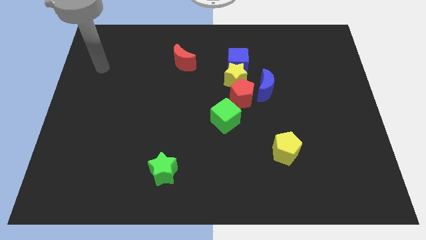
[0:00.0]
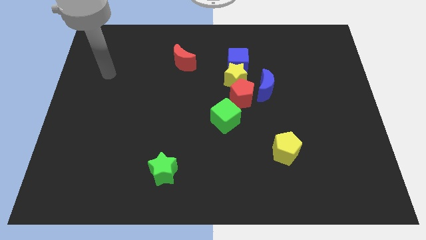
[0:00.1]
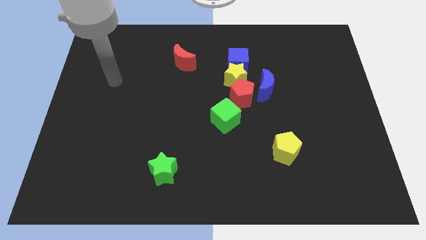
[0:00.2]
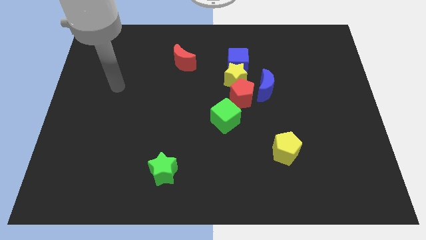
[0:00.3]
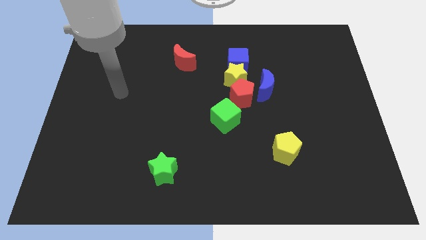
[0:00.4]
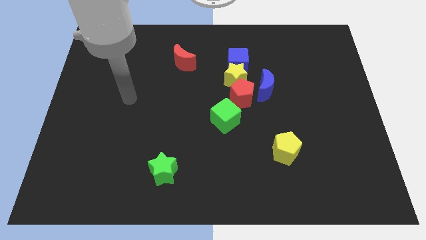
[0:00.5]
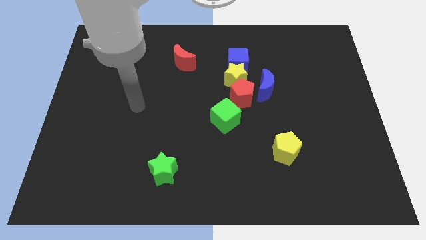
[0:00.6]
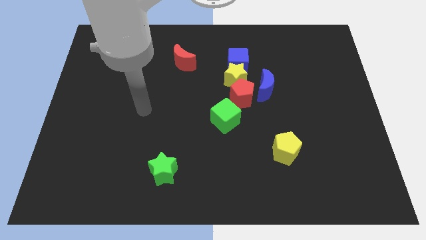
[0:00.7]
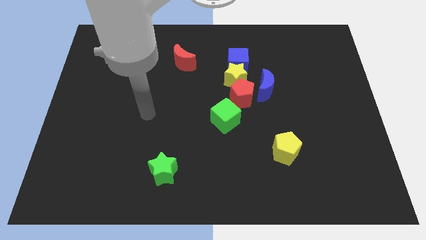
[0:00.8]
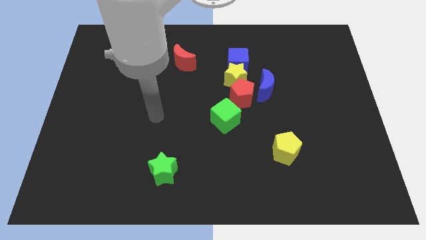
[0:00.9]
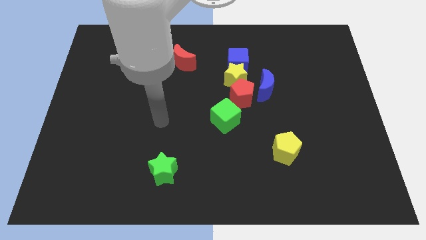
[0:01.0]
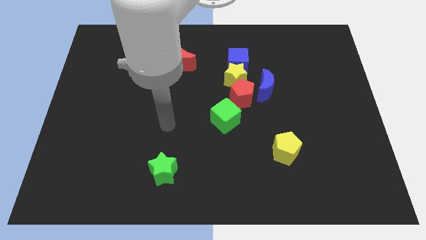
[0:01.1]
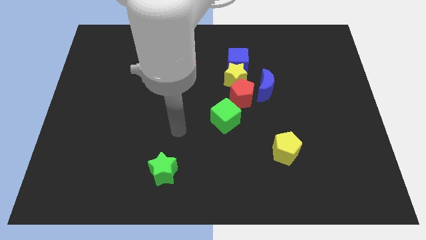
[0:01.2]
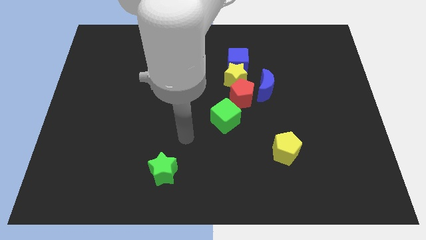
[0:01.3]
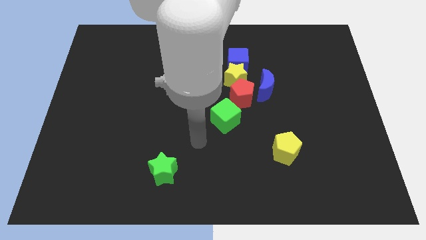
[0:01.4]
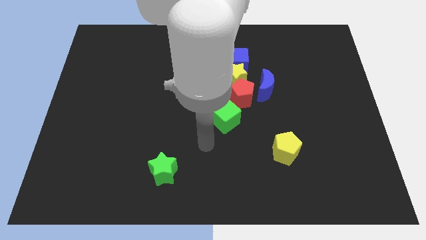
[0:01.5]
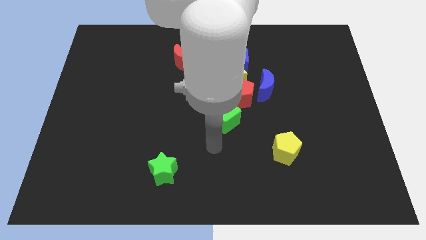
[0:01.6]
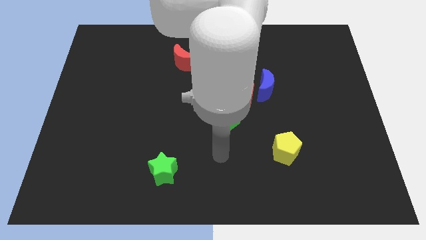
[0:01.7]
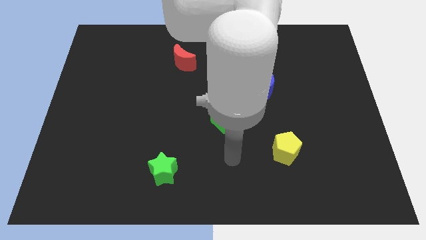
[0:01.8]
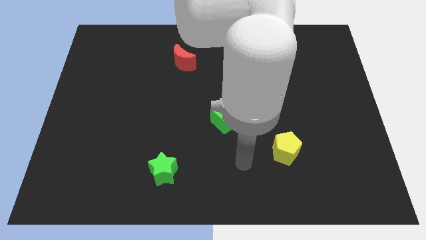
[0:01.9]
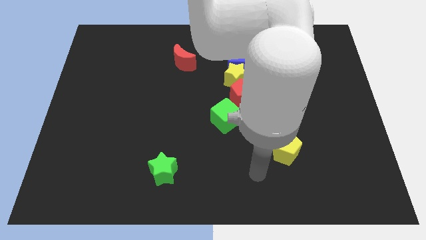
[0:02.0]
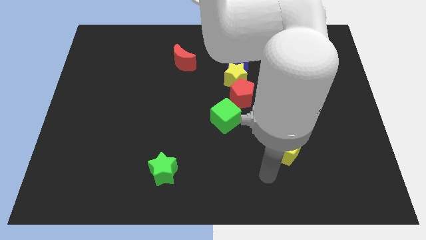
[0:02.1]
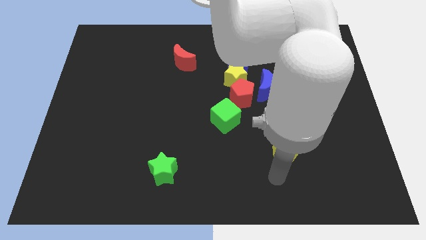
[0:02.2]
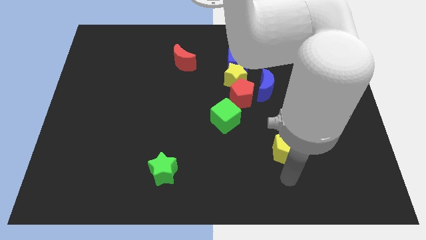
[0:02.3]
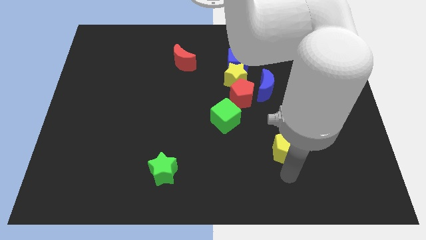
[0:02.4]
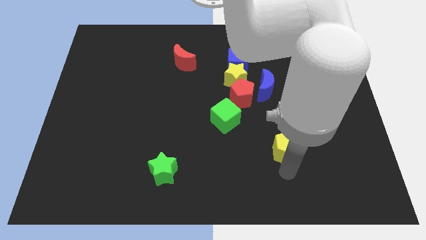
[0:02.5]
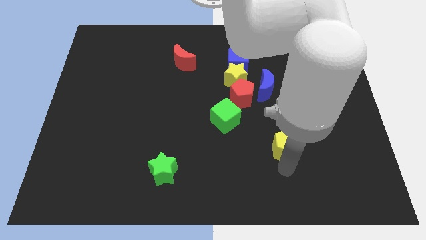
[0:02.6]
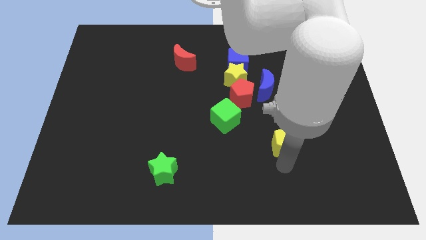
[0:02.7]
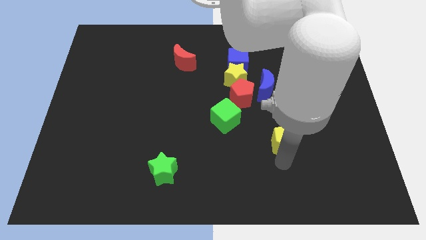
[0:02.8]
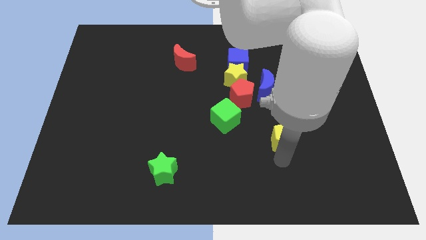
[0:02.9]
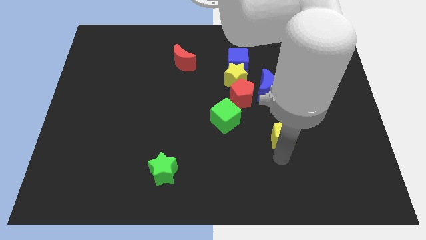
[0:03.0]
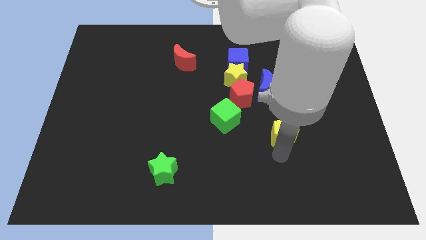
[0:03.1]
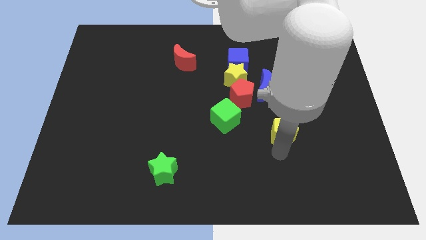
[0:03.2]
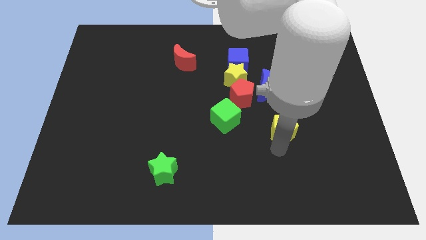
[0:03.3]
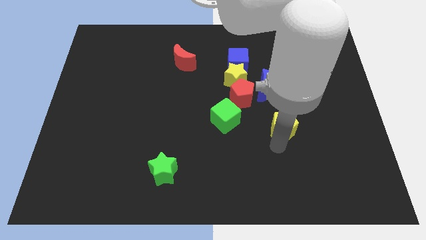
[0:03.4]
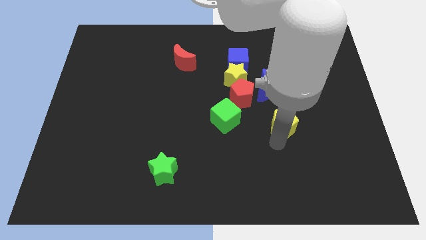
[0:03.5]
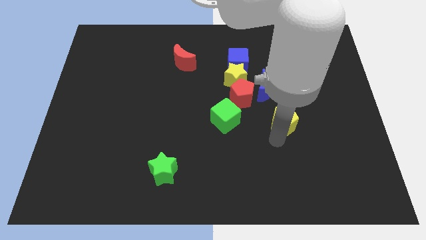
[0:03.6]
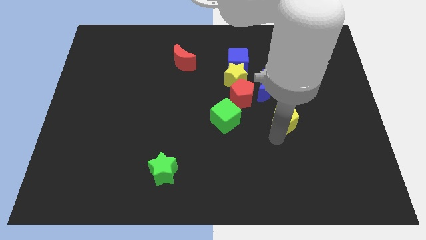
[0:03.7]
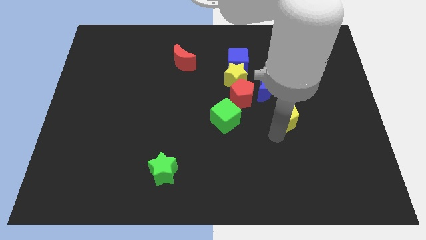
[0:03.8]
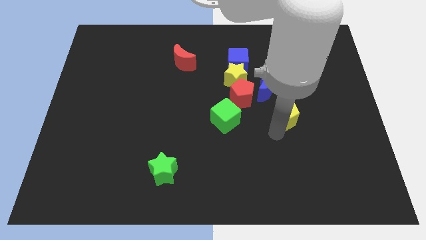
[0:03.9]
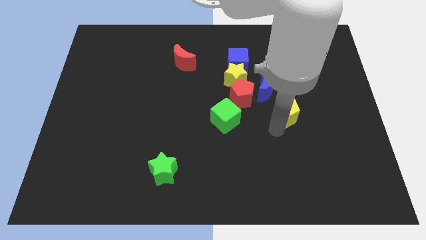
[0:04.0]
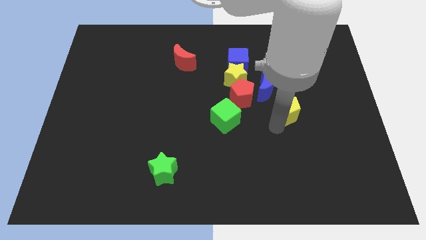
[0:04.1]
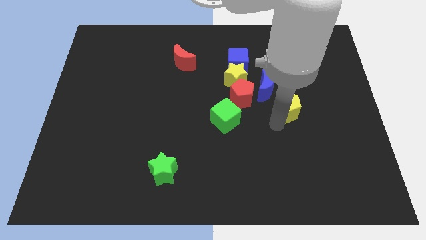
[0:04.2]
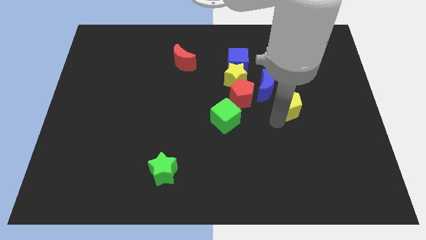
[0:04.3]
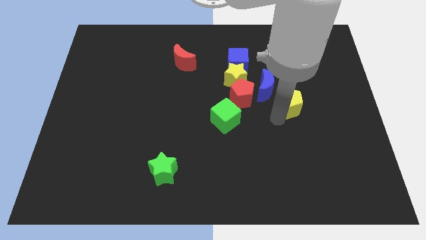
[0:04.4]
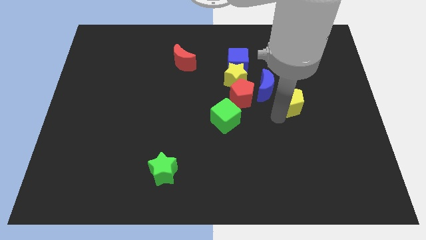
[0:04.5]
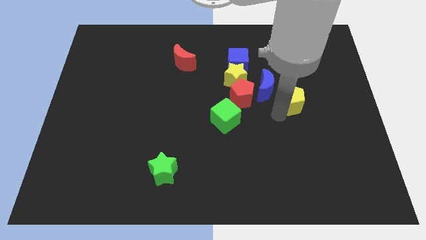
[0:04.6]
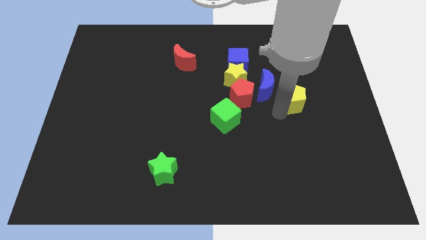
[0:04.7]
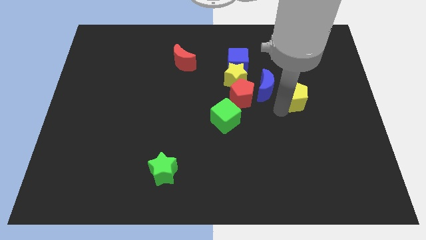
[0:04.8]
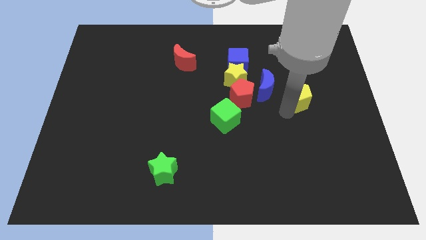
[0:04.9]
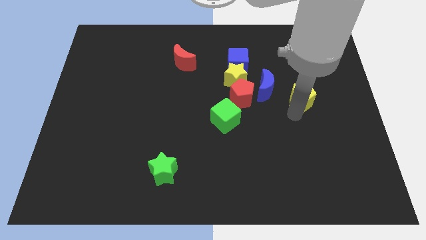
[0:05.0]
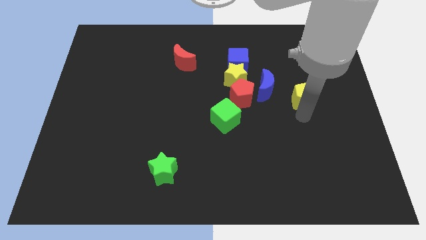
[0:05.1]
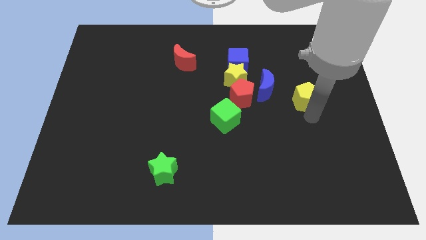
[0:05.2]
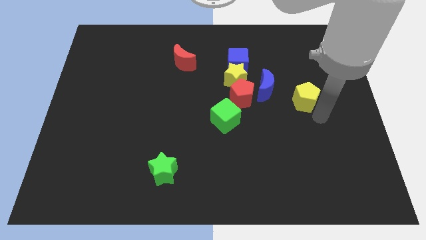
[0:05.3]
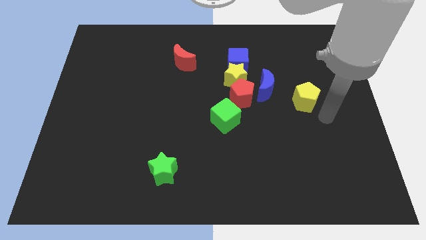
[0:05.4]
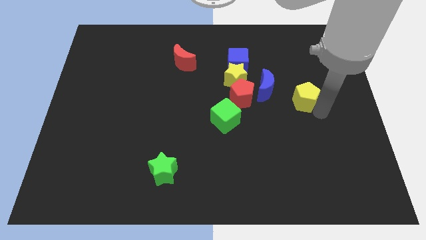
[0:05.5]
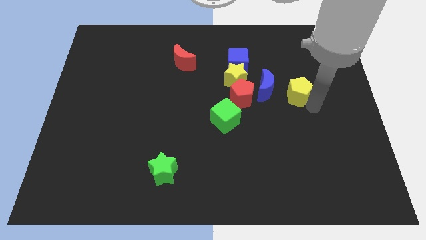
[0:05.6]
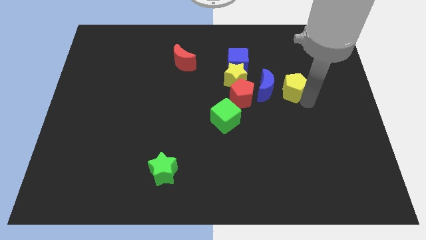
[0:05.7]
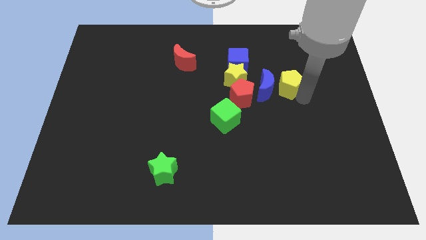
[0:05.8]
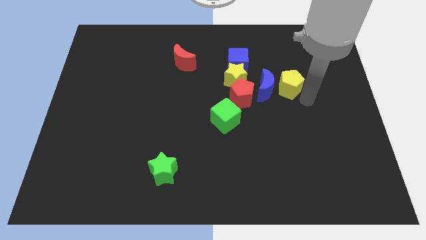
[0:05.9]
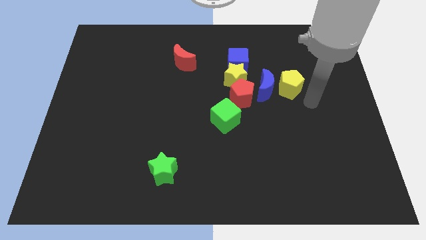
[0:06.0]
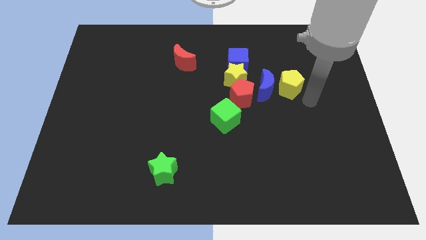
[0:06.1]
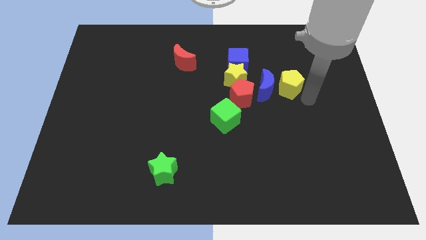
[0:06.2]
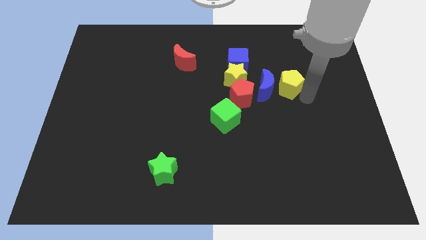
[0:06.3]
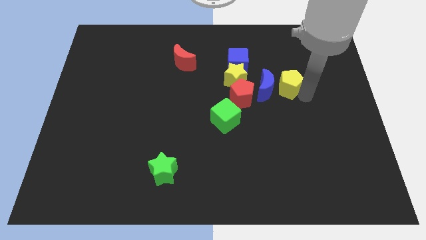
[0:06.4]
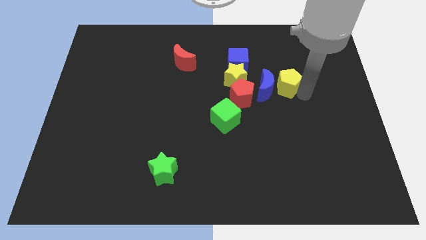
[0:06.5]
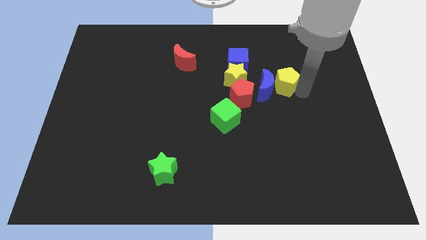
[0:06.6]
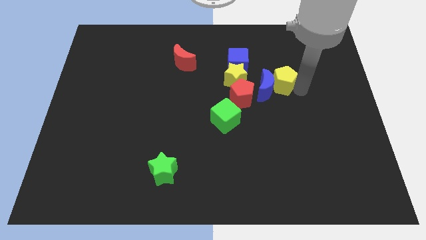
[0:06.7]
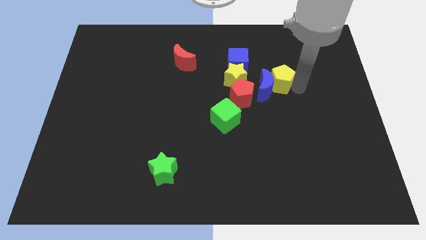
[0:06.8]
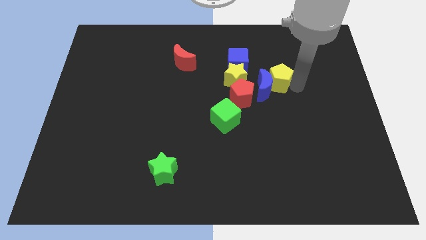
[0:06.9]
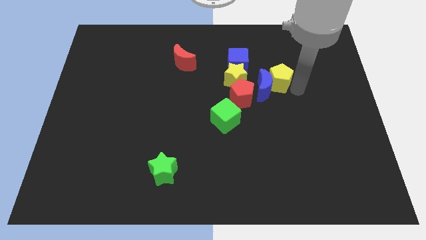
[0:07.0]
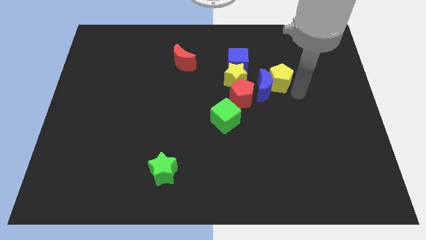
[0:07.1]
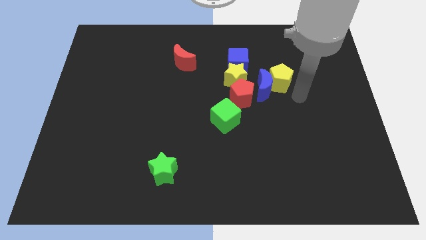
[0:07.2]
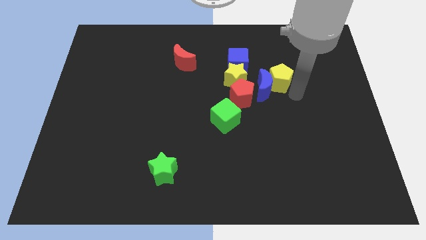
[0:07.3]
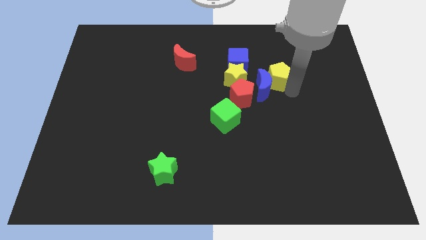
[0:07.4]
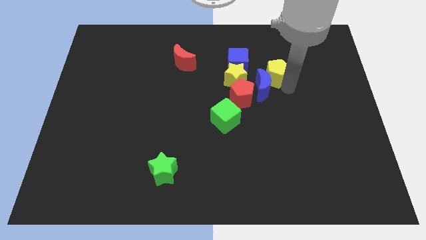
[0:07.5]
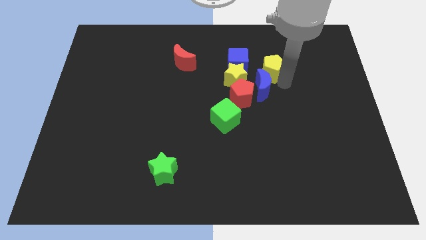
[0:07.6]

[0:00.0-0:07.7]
put the yellow pentagon to the top right side of the yellow star
